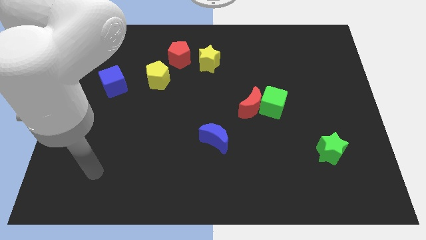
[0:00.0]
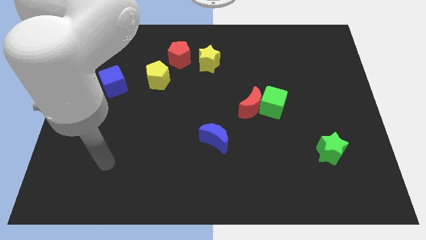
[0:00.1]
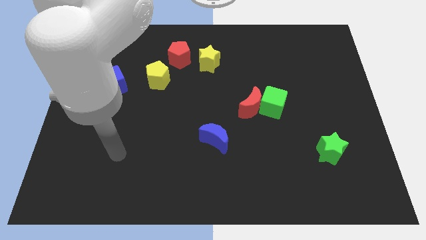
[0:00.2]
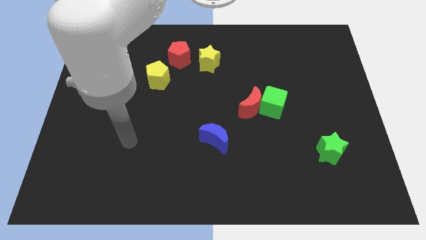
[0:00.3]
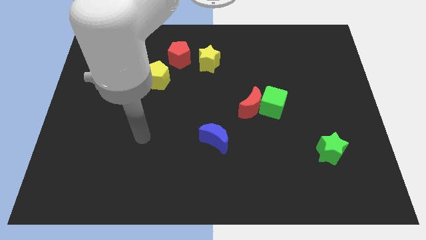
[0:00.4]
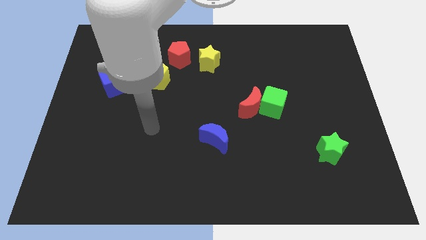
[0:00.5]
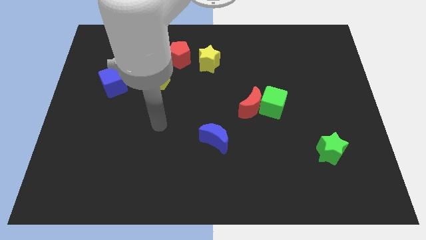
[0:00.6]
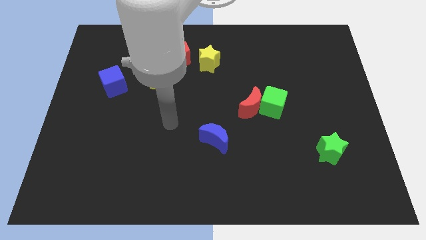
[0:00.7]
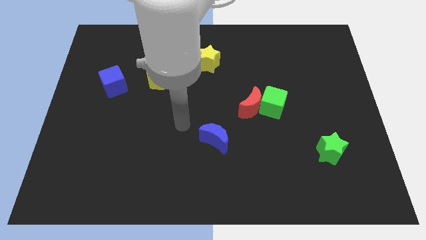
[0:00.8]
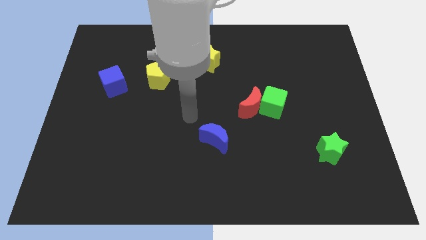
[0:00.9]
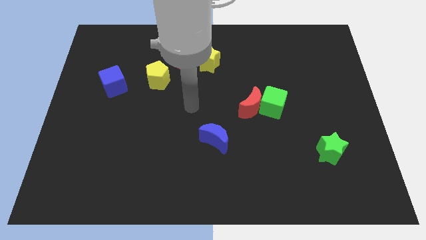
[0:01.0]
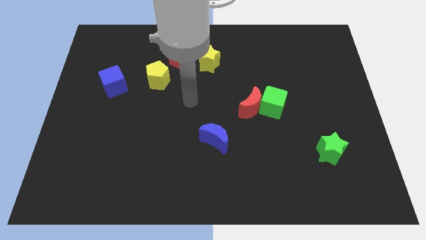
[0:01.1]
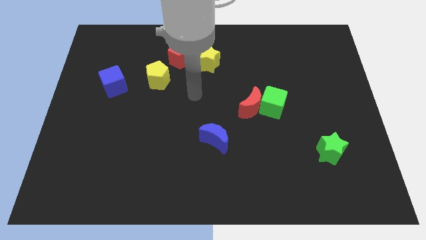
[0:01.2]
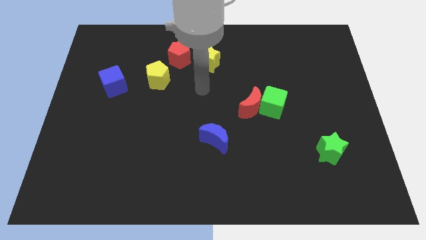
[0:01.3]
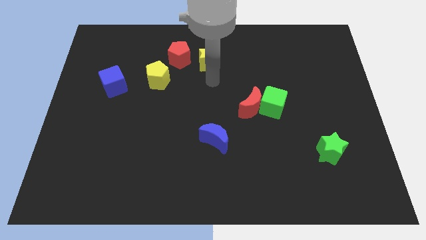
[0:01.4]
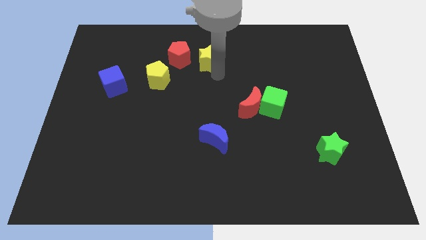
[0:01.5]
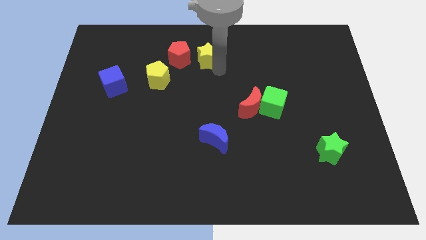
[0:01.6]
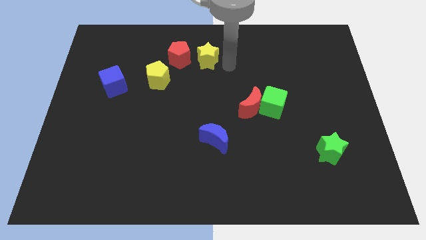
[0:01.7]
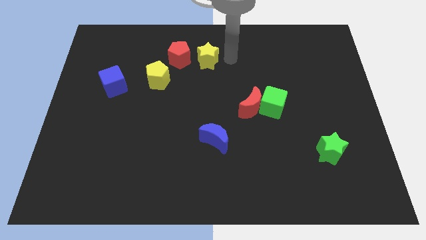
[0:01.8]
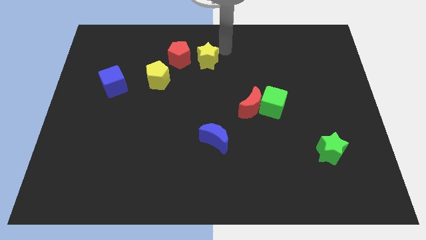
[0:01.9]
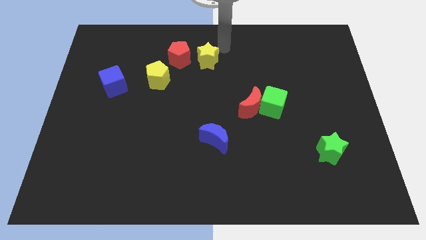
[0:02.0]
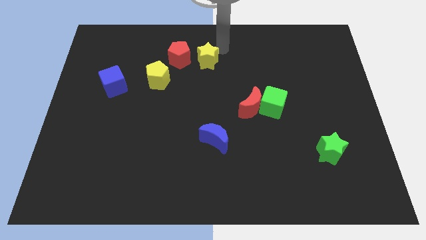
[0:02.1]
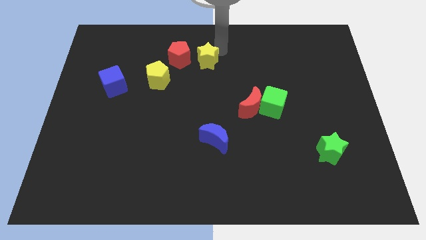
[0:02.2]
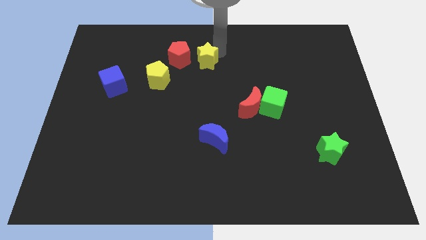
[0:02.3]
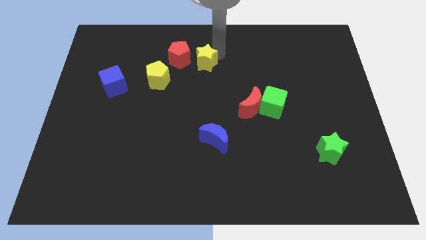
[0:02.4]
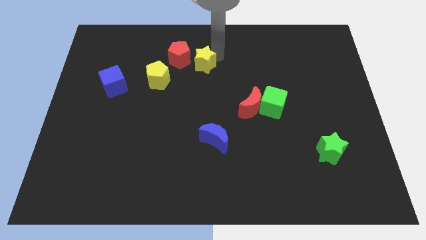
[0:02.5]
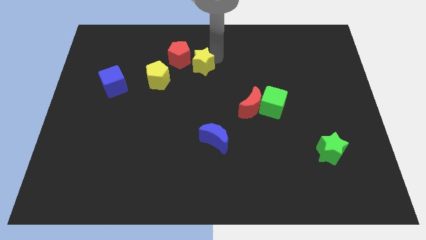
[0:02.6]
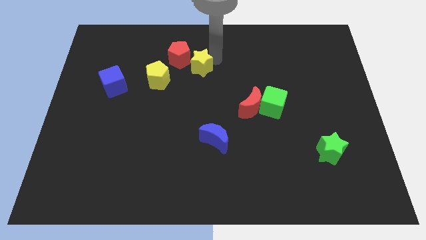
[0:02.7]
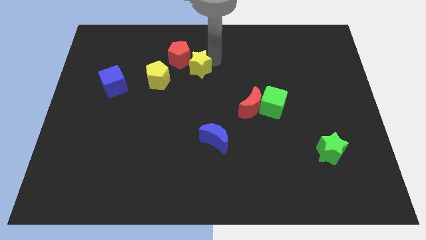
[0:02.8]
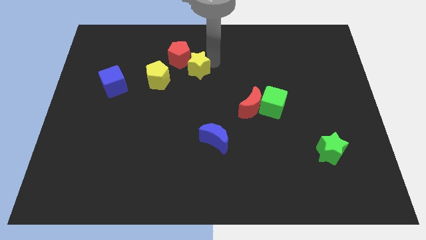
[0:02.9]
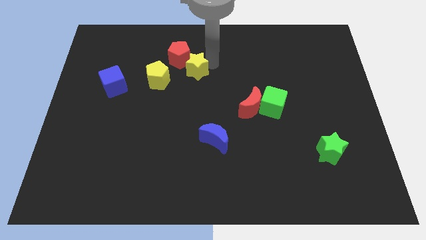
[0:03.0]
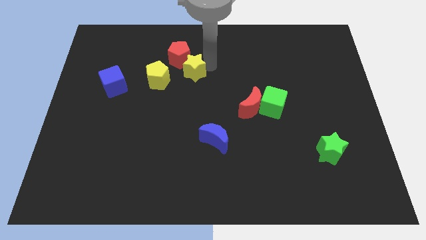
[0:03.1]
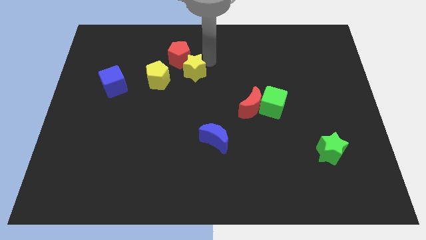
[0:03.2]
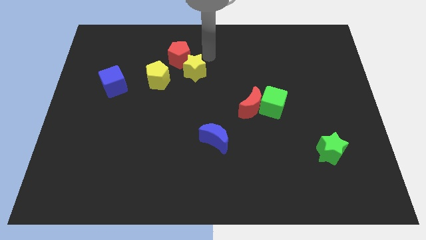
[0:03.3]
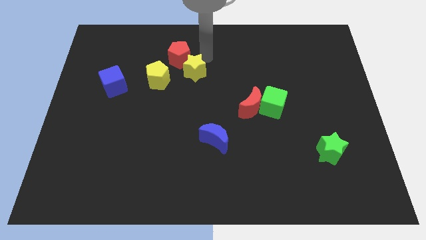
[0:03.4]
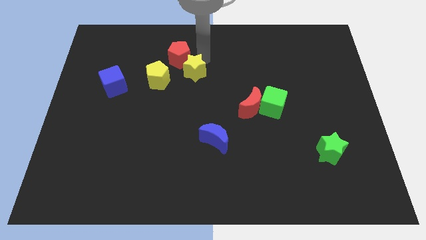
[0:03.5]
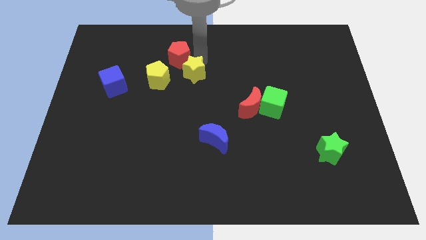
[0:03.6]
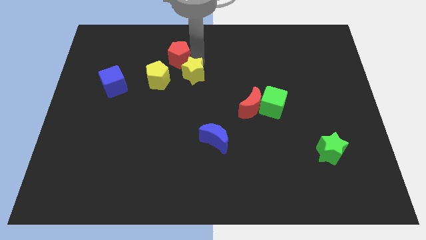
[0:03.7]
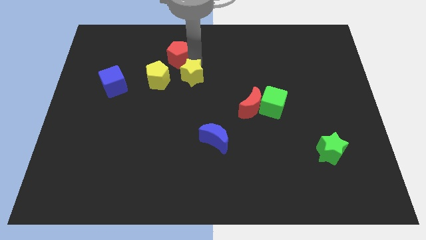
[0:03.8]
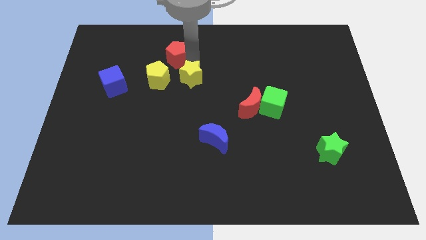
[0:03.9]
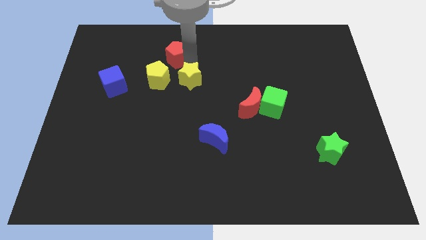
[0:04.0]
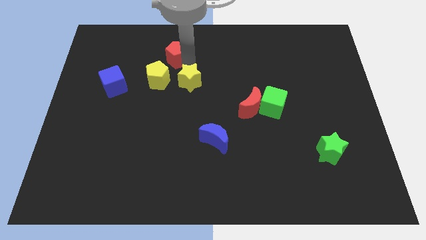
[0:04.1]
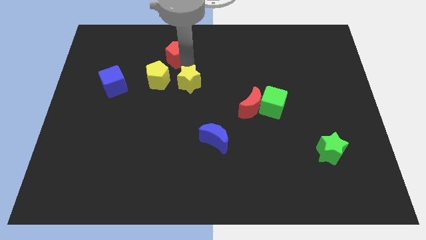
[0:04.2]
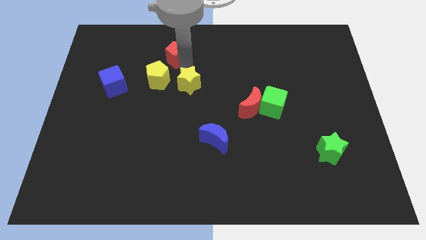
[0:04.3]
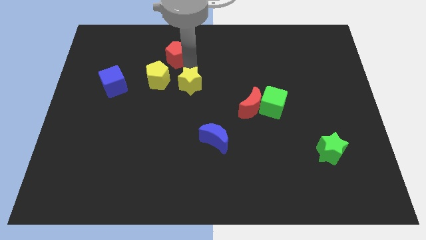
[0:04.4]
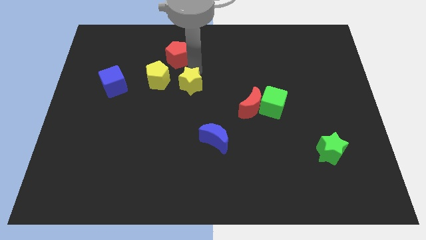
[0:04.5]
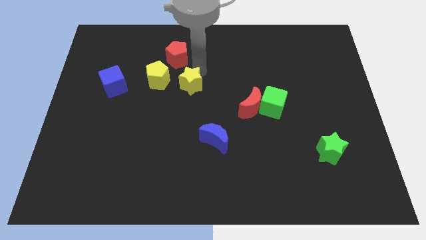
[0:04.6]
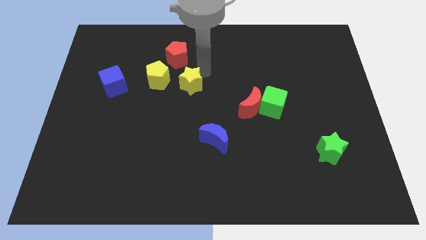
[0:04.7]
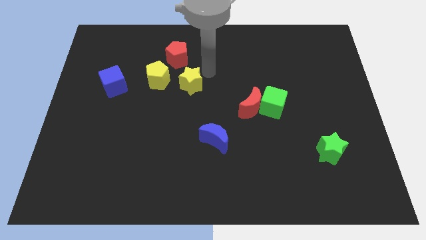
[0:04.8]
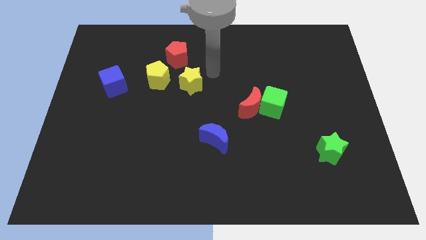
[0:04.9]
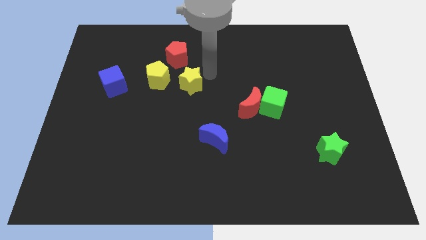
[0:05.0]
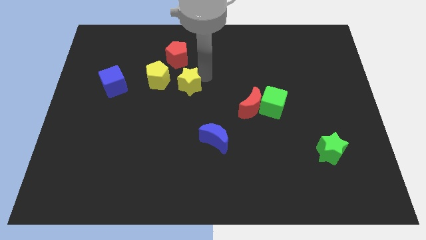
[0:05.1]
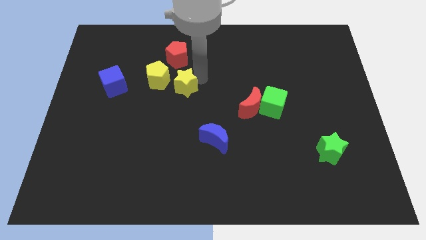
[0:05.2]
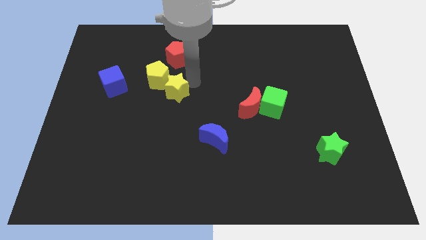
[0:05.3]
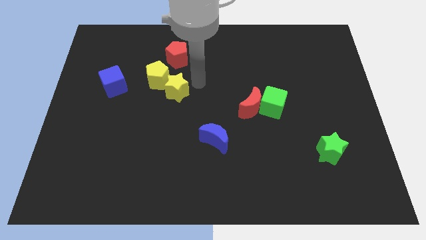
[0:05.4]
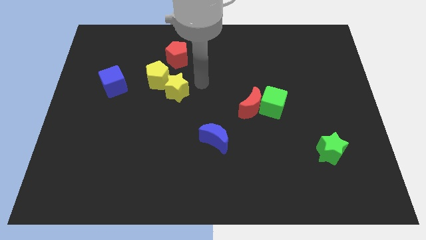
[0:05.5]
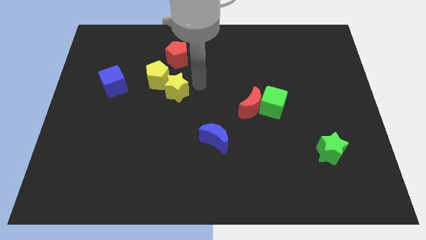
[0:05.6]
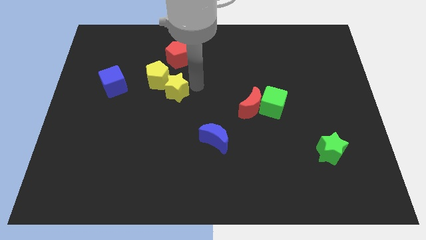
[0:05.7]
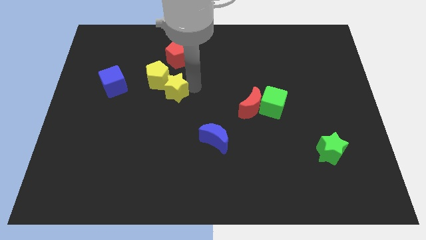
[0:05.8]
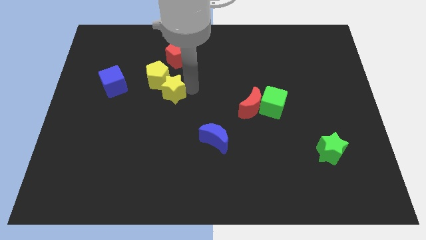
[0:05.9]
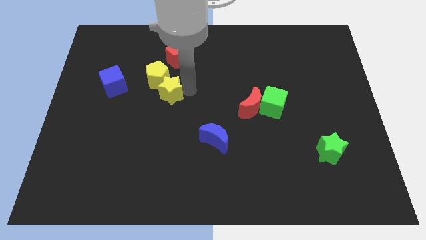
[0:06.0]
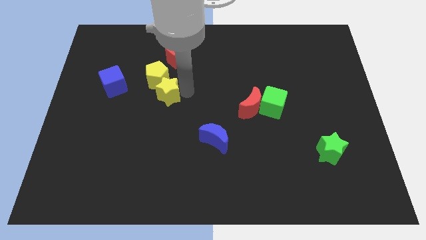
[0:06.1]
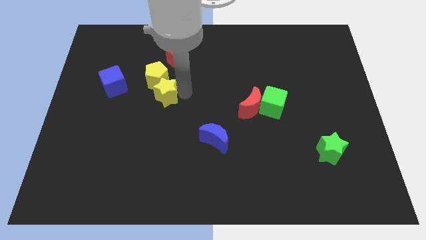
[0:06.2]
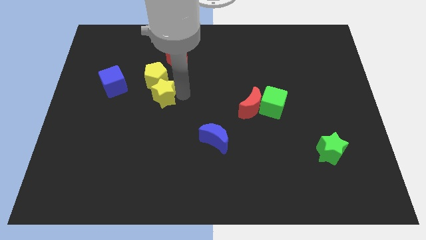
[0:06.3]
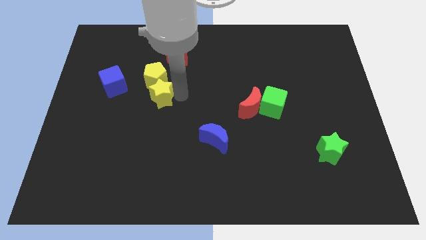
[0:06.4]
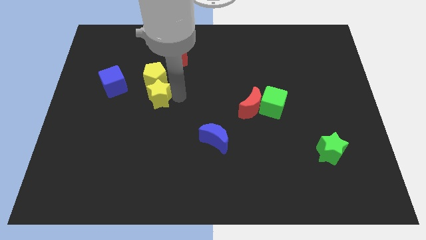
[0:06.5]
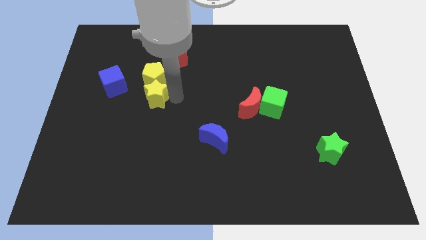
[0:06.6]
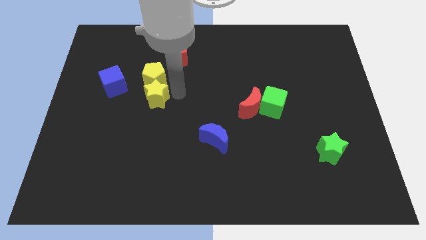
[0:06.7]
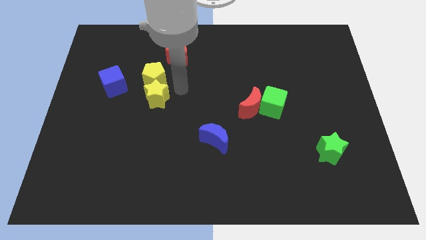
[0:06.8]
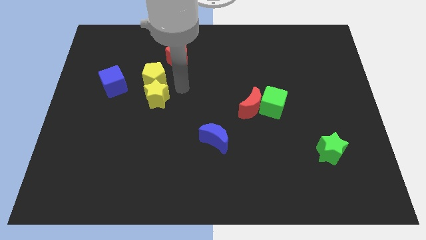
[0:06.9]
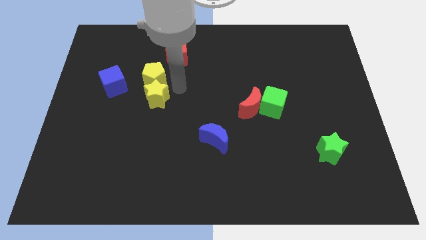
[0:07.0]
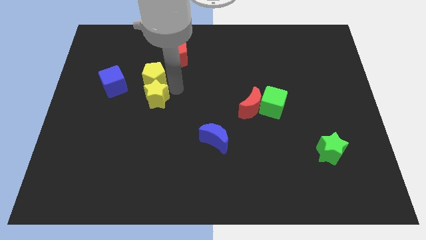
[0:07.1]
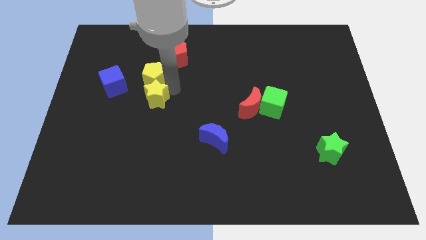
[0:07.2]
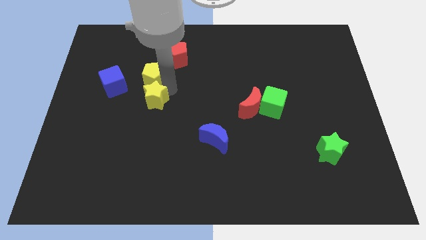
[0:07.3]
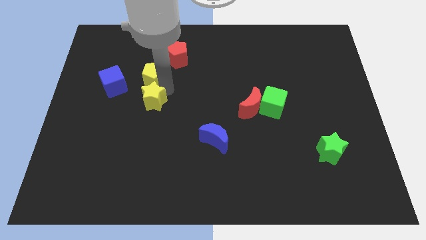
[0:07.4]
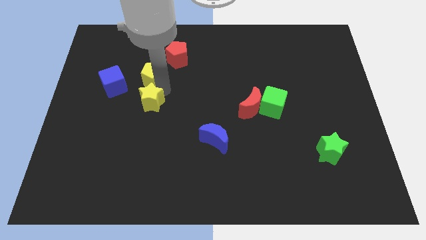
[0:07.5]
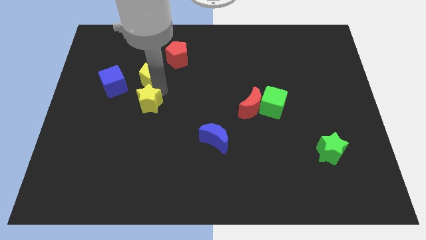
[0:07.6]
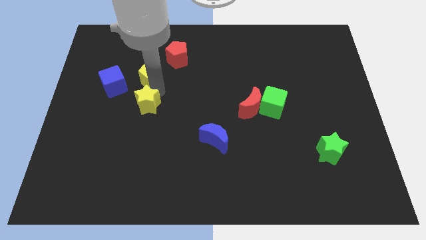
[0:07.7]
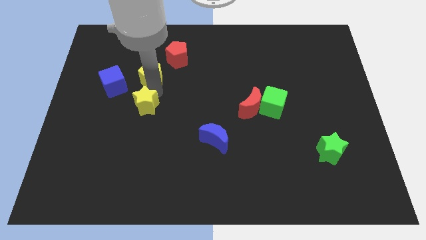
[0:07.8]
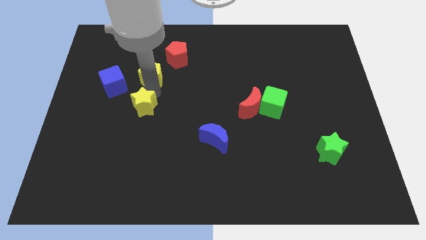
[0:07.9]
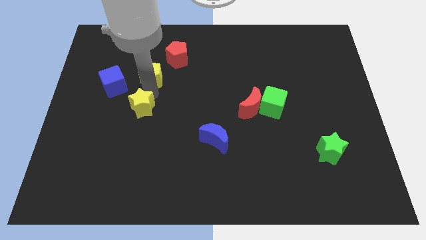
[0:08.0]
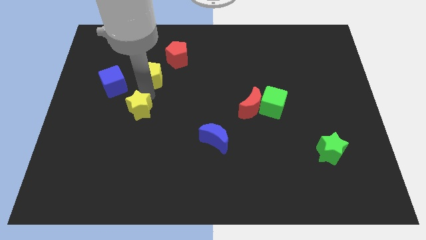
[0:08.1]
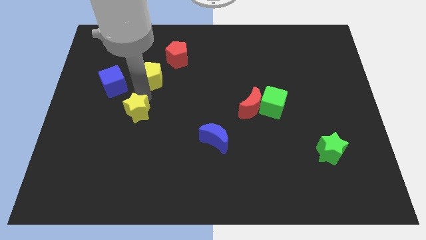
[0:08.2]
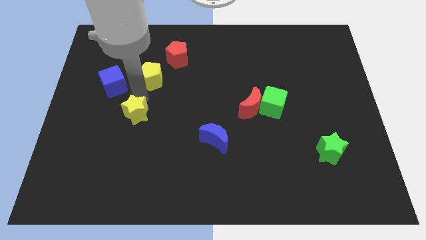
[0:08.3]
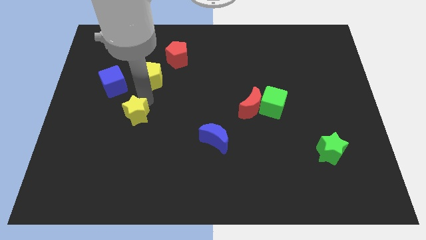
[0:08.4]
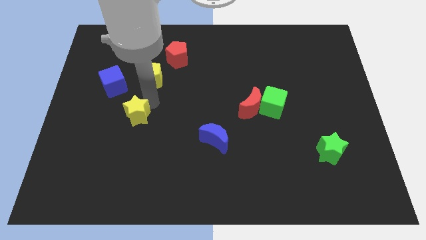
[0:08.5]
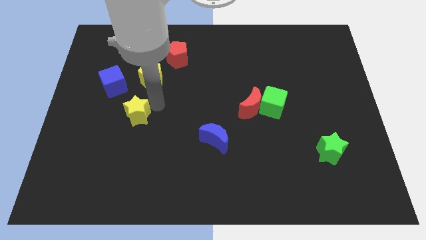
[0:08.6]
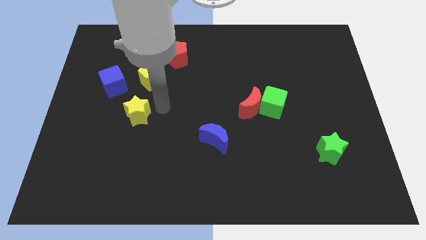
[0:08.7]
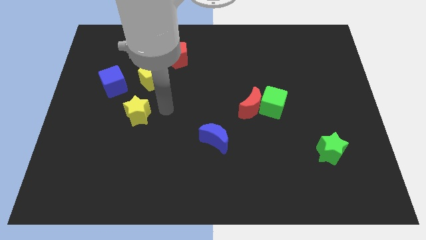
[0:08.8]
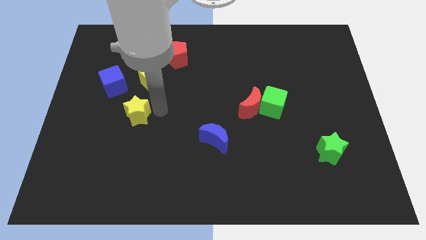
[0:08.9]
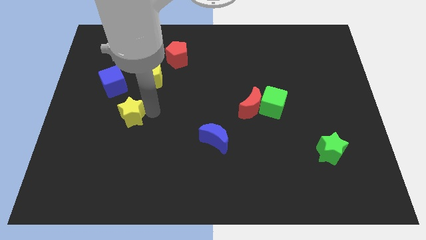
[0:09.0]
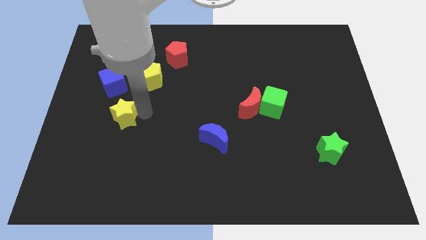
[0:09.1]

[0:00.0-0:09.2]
slide the yellow star to the bottom of the blue cube
